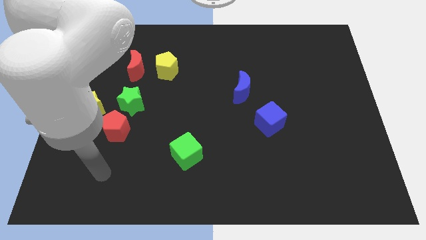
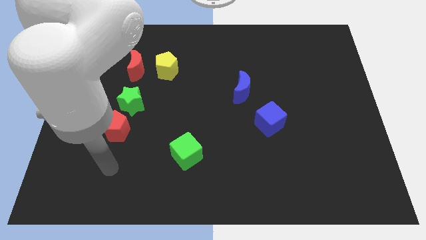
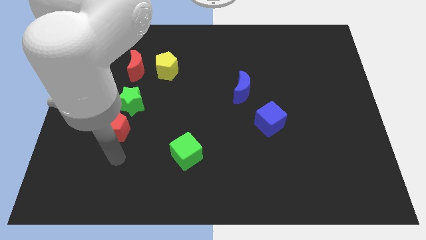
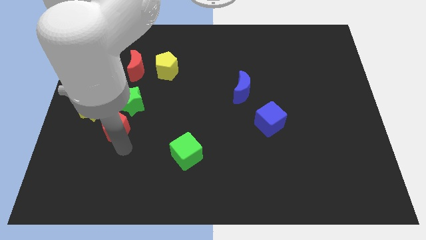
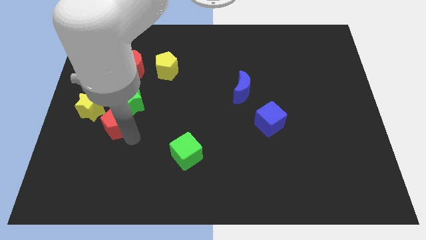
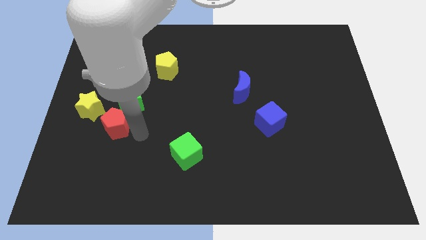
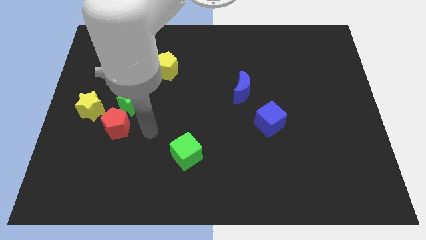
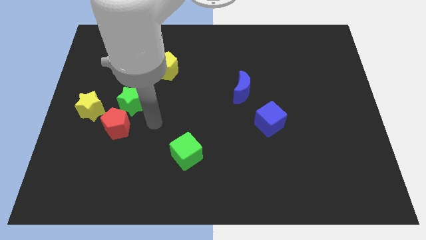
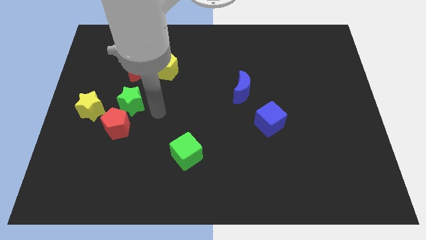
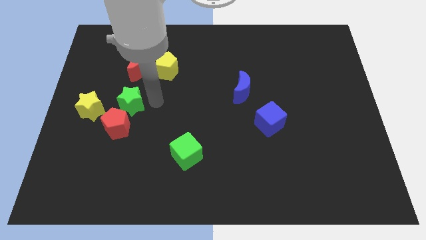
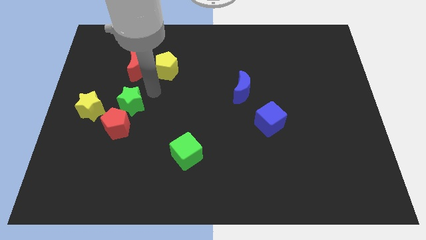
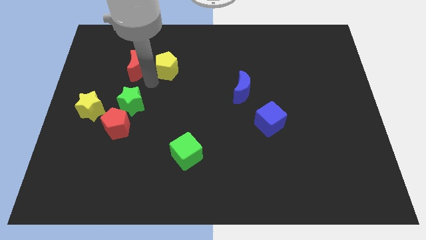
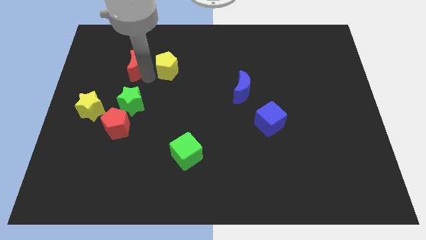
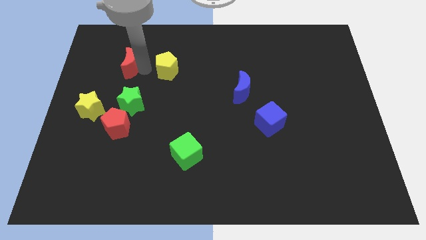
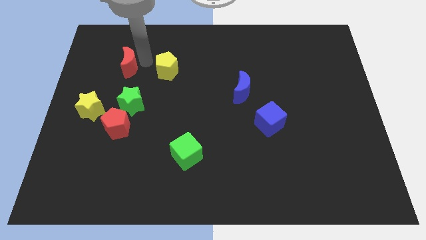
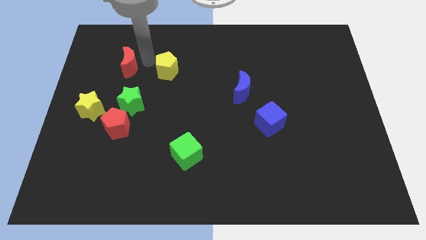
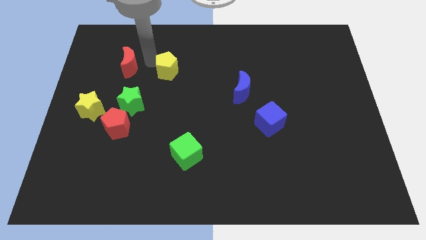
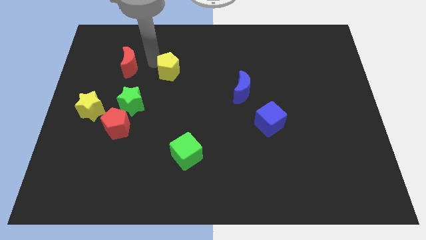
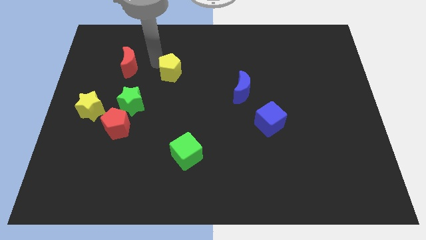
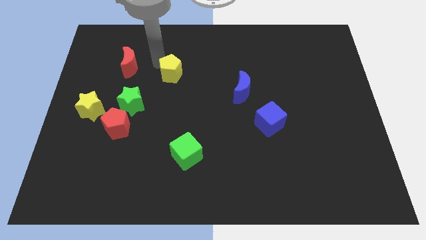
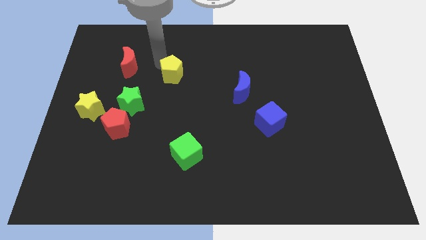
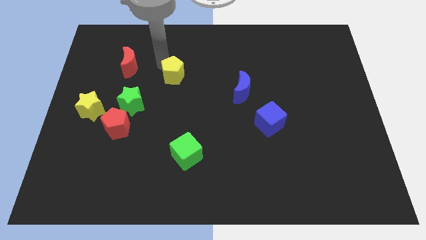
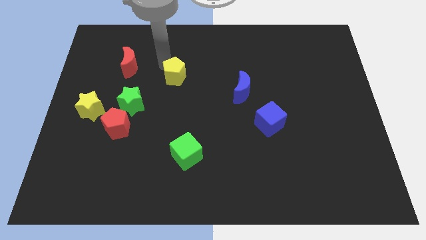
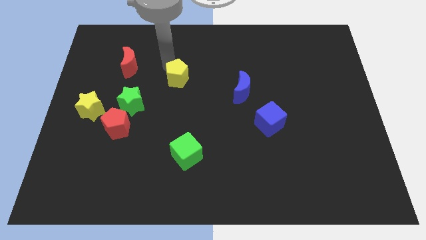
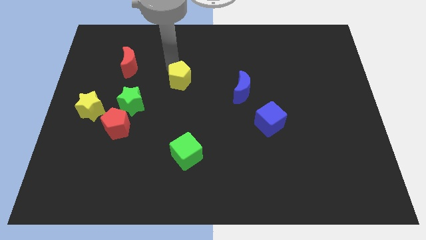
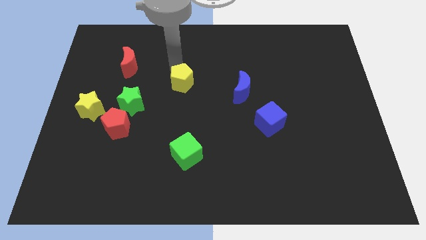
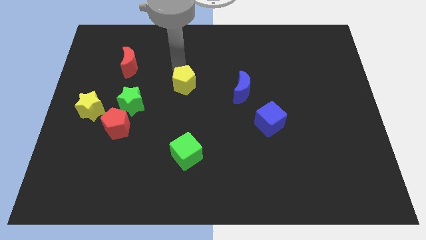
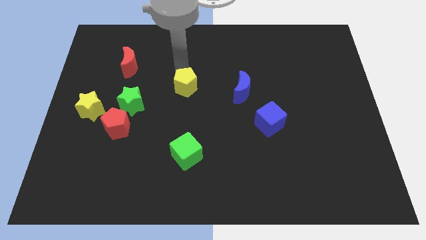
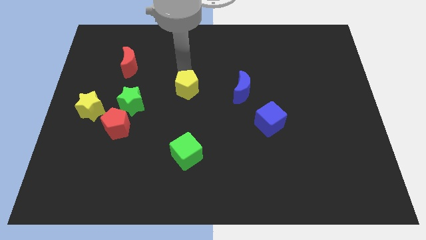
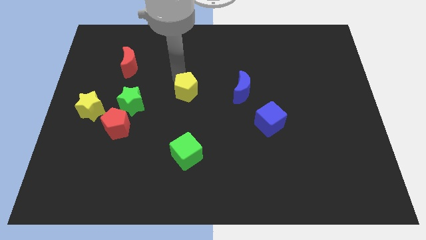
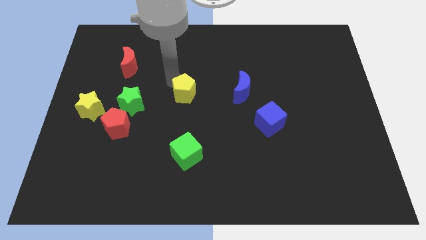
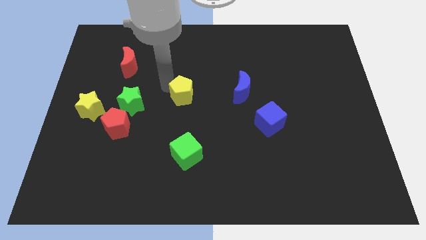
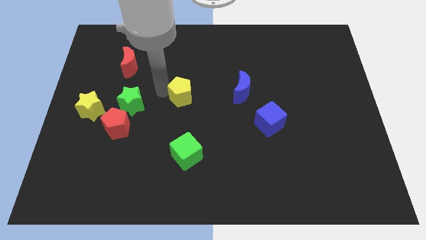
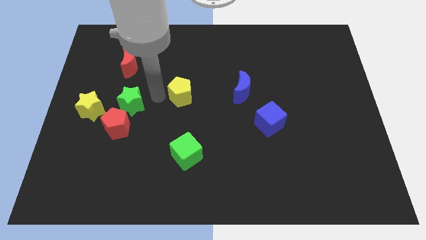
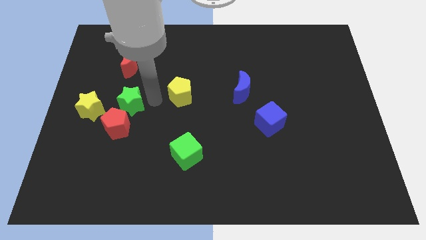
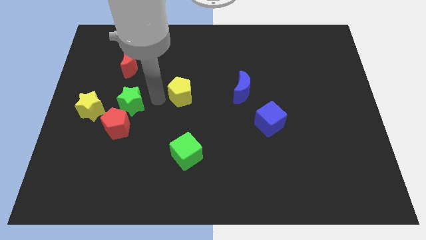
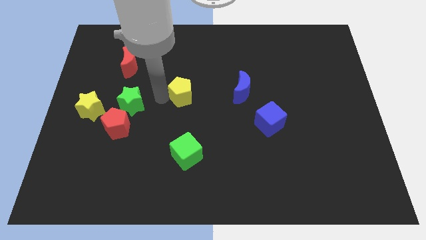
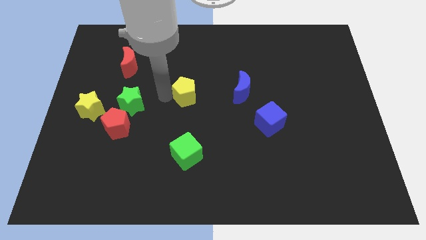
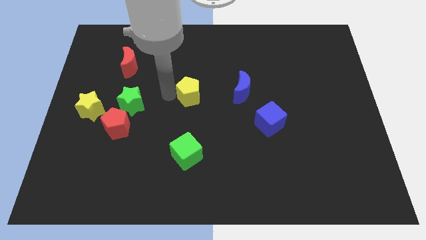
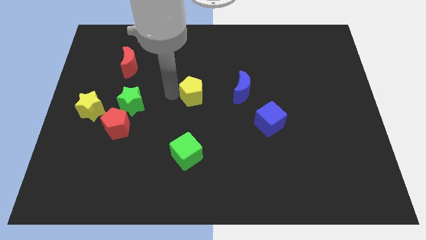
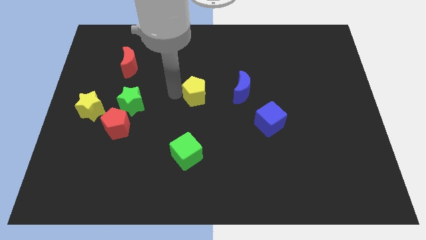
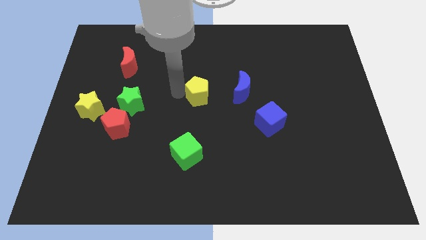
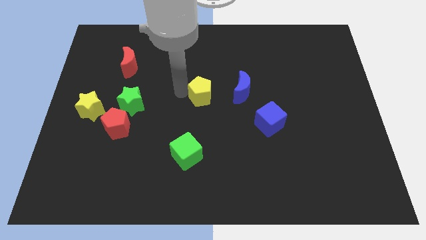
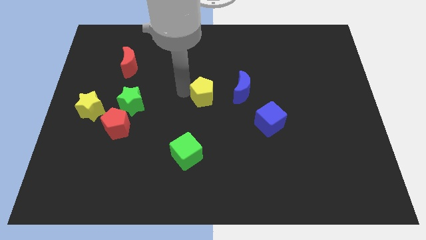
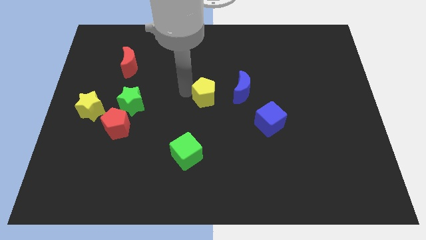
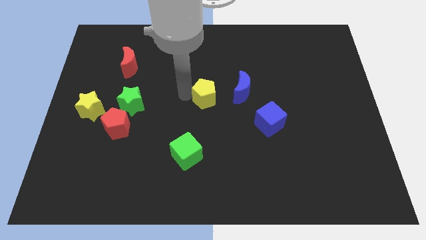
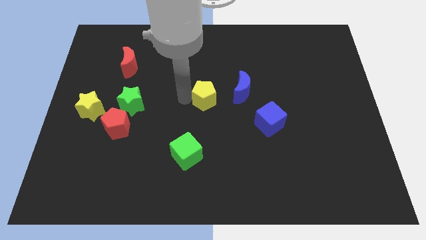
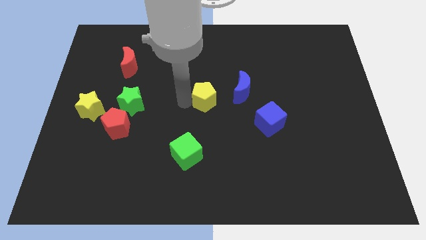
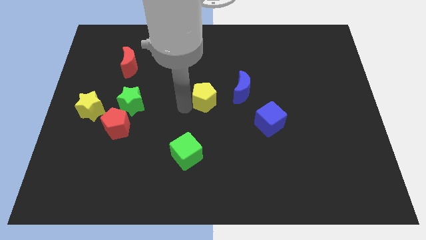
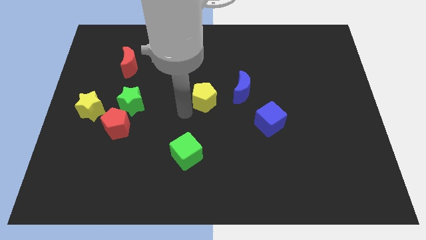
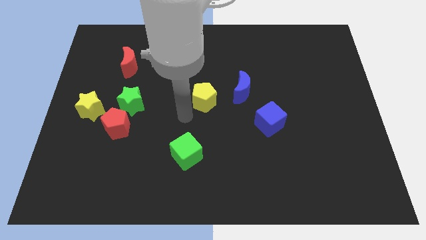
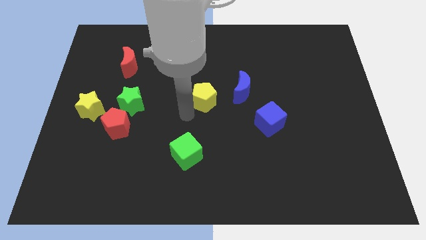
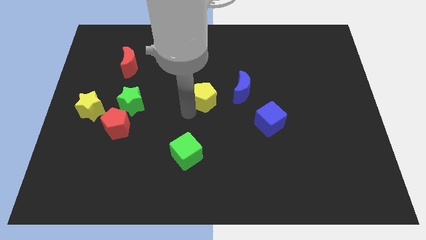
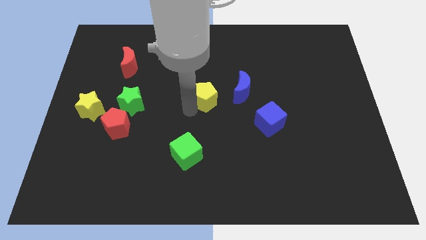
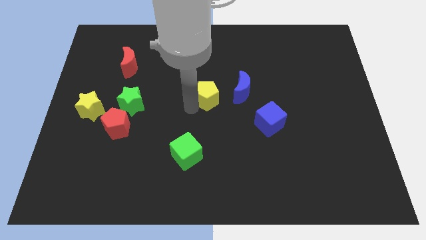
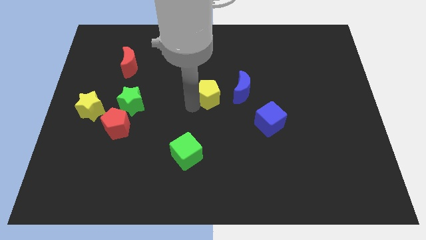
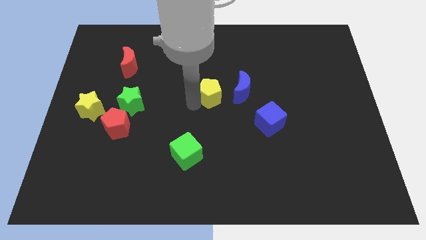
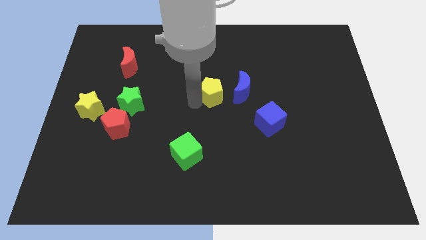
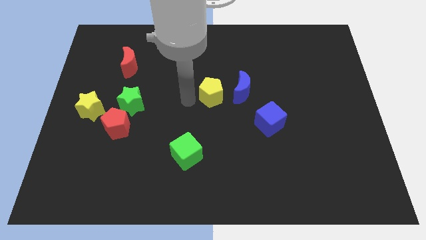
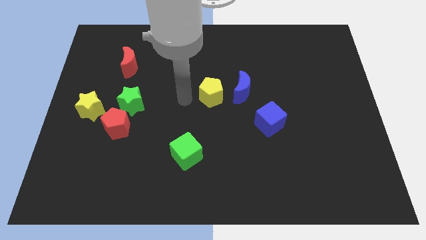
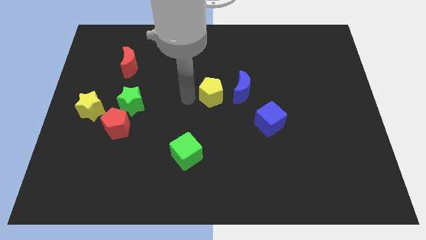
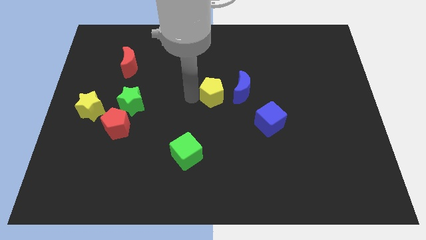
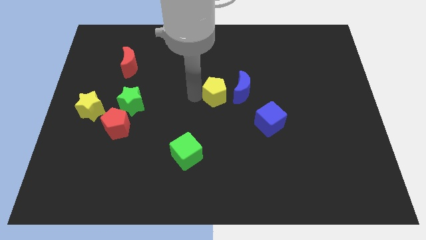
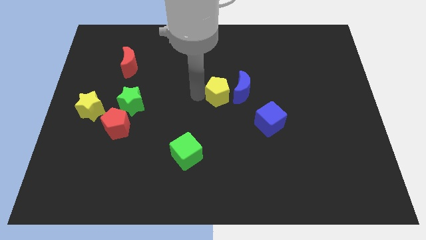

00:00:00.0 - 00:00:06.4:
move the yellow pentagon close to the blue moon

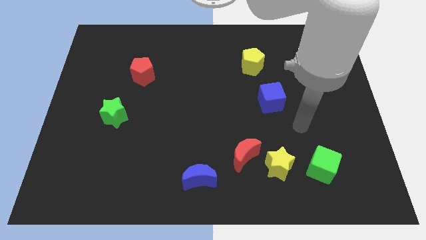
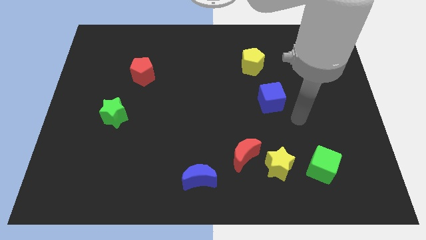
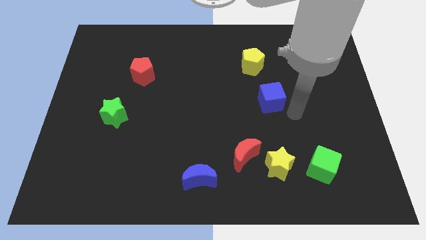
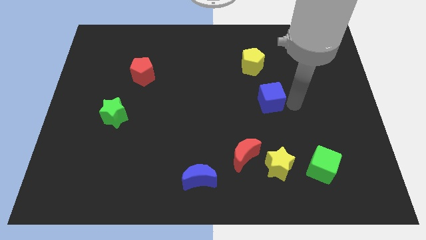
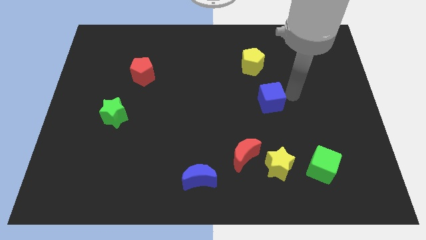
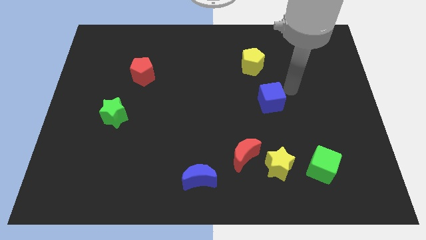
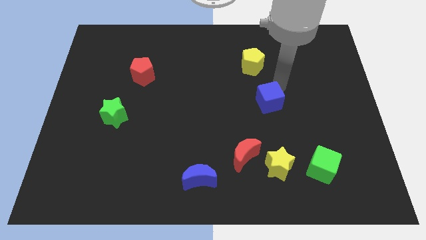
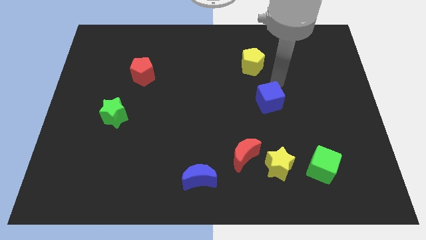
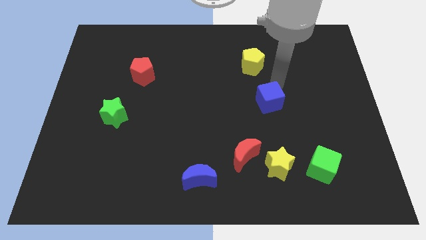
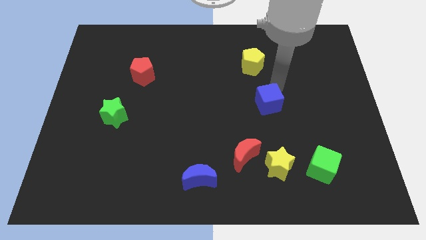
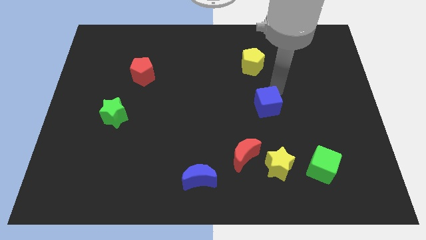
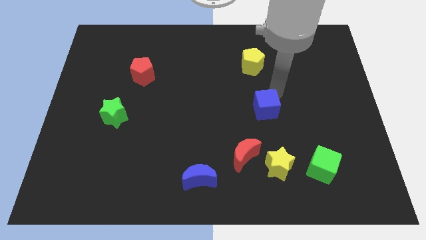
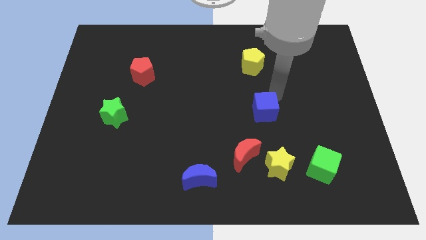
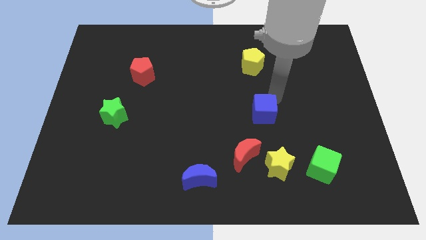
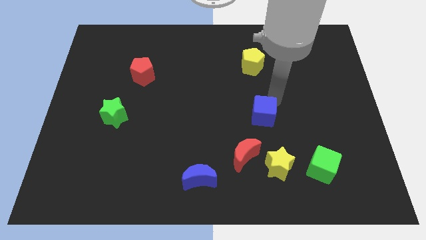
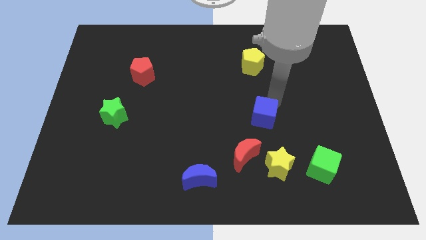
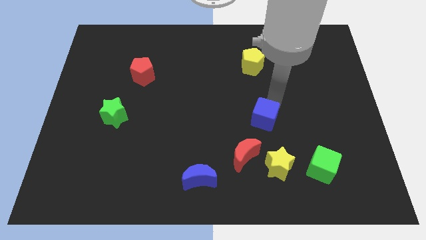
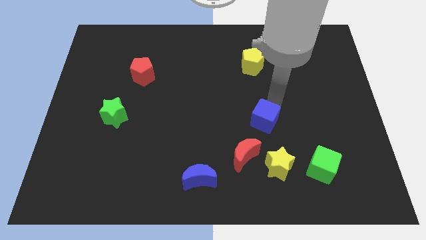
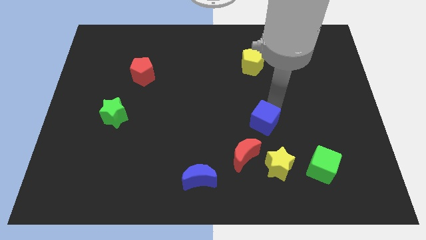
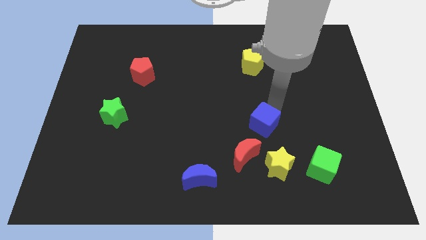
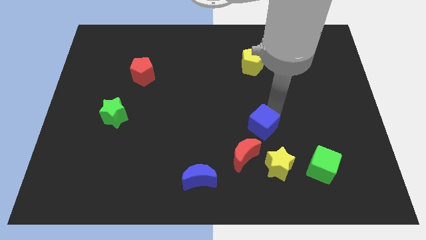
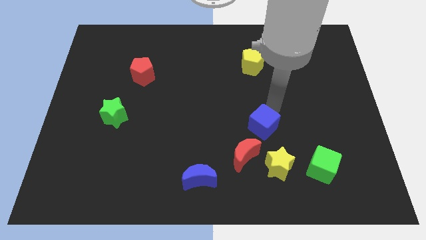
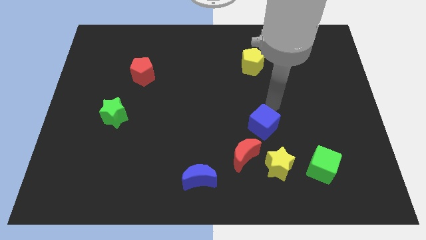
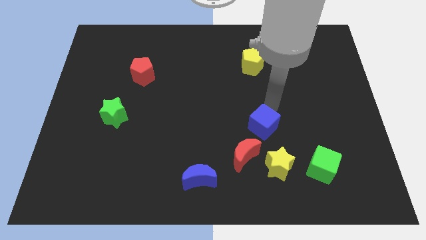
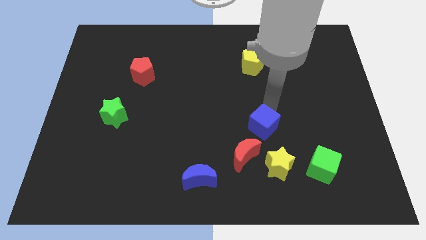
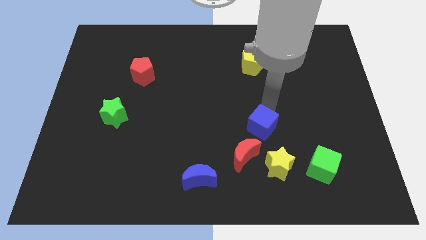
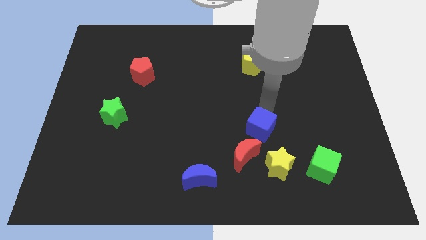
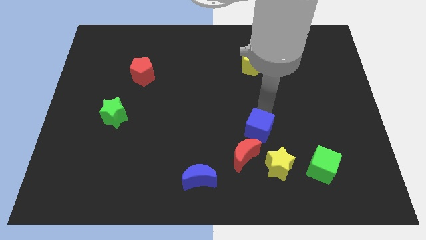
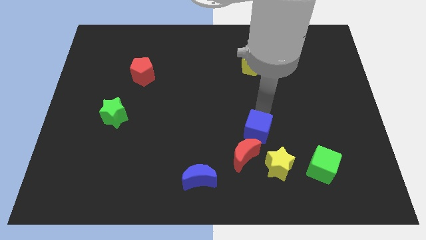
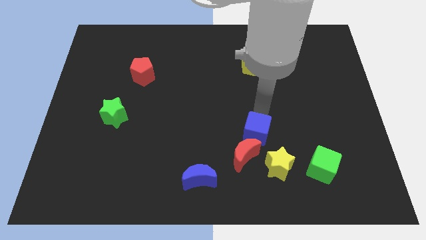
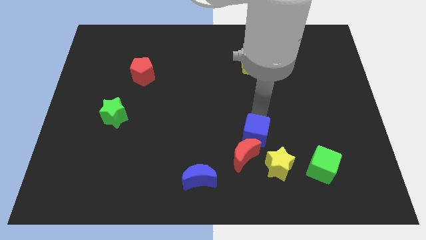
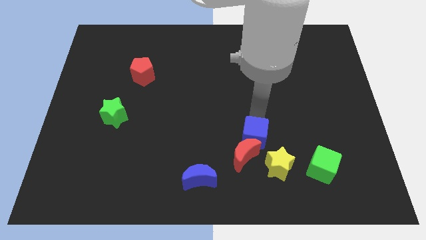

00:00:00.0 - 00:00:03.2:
push the blue cube next to the red moon
